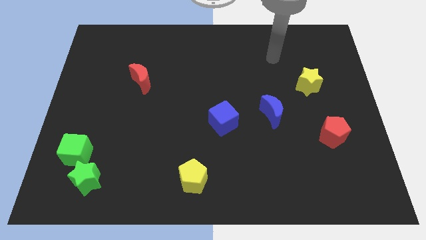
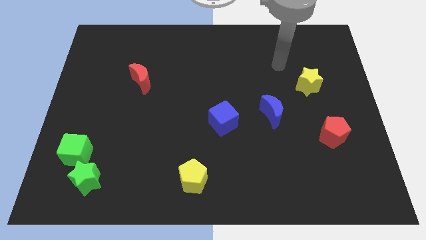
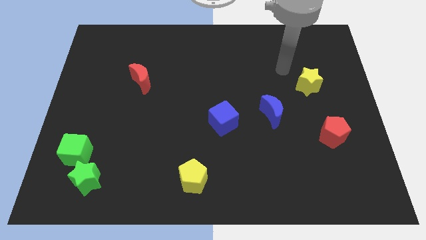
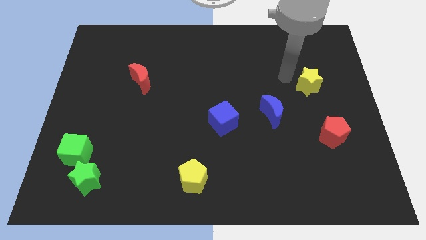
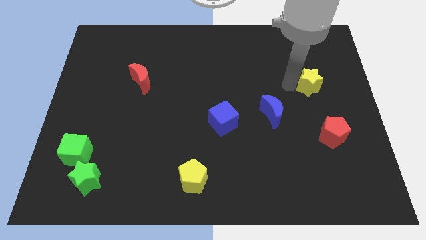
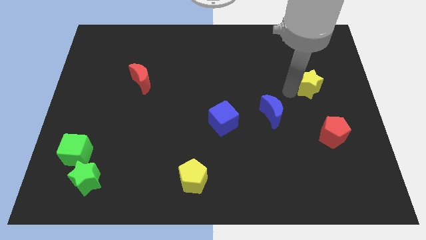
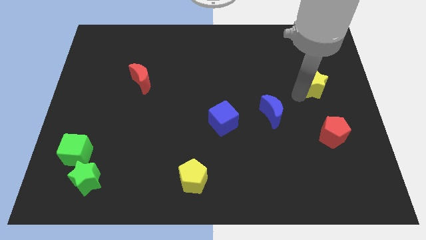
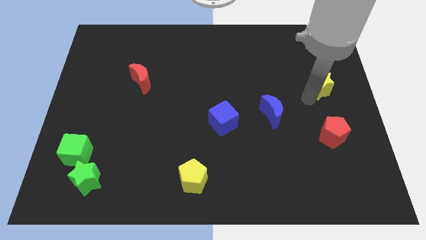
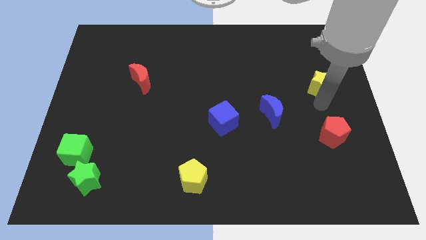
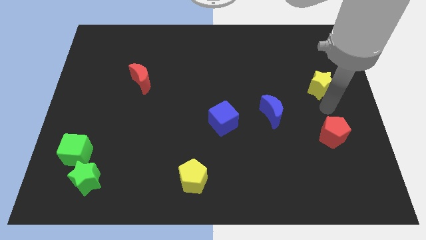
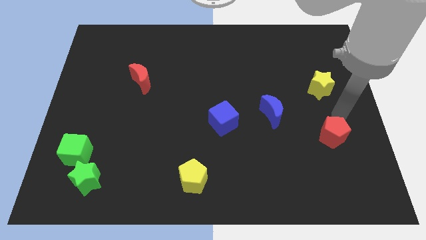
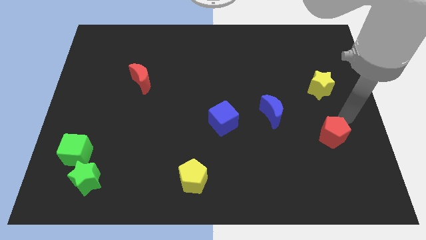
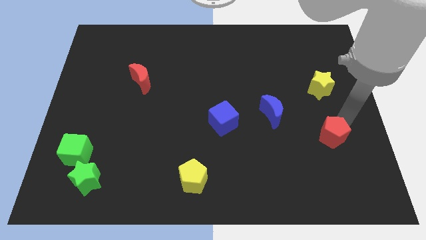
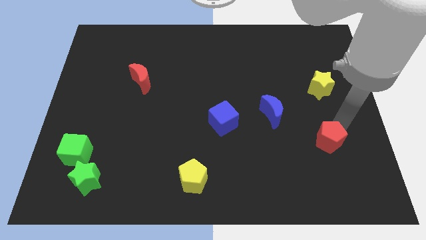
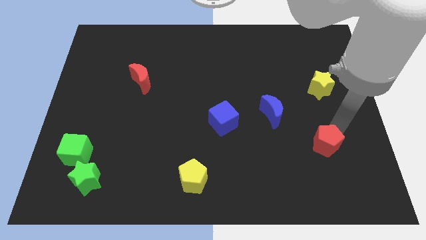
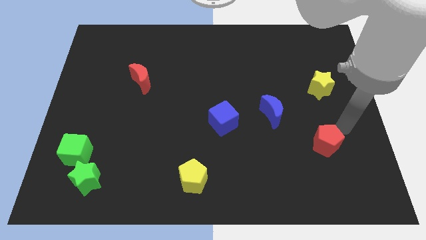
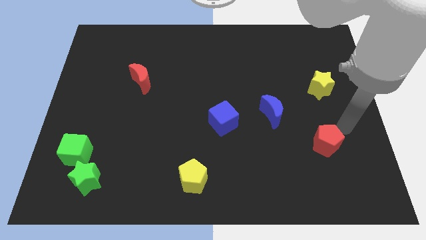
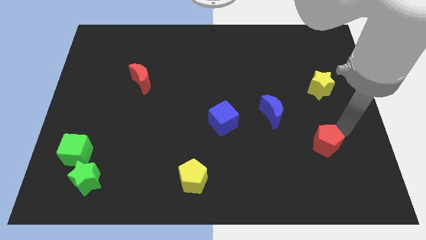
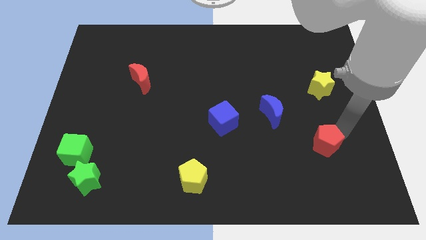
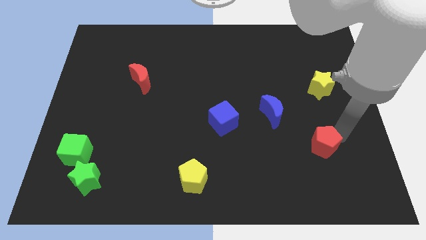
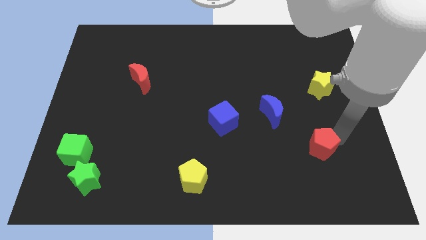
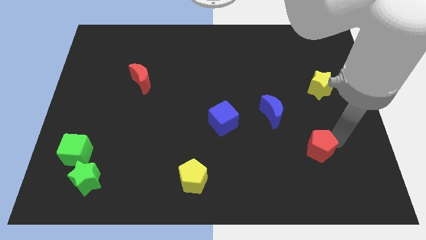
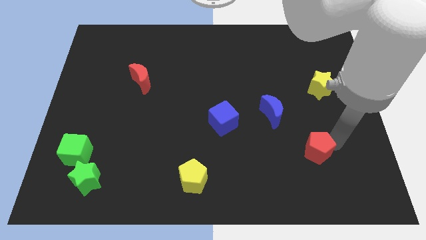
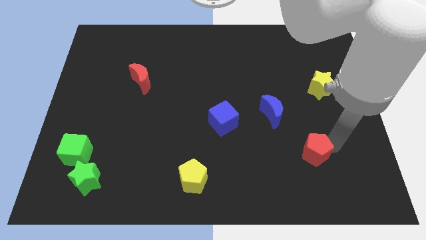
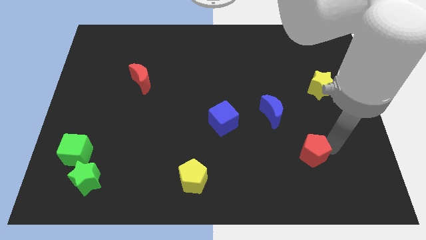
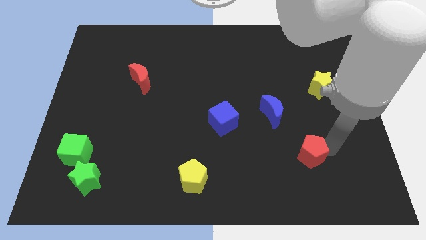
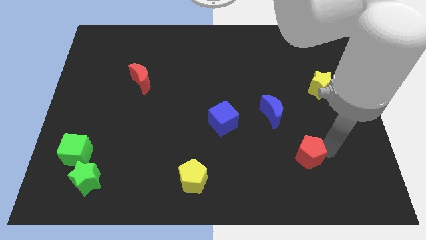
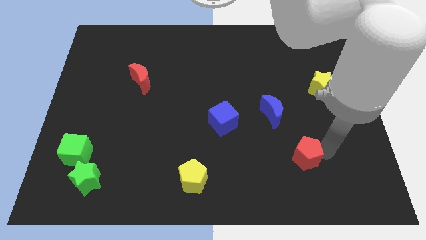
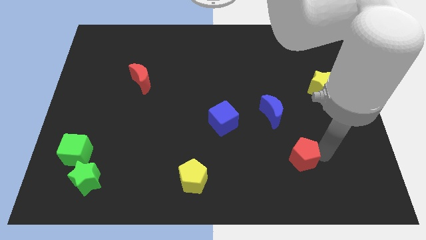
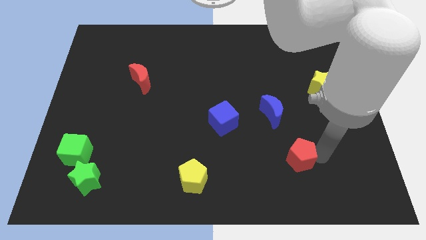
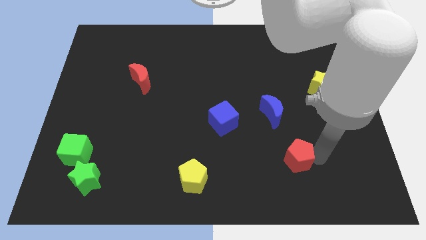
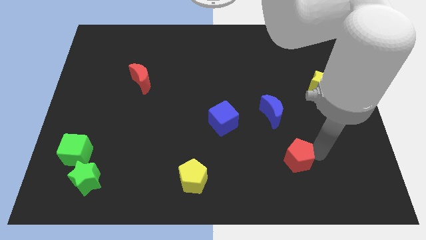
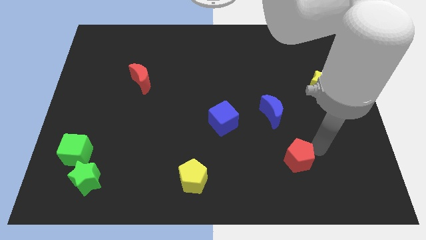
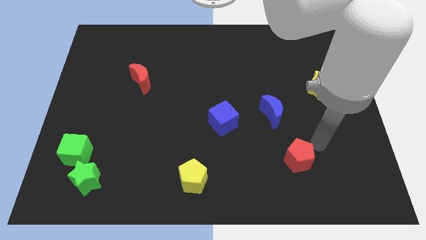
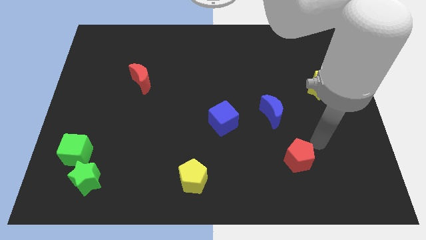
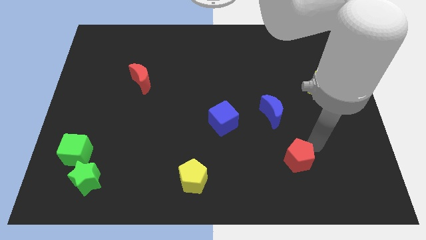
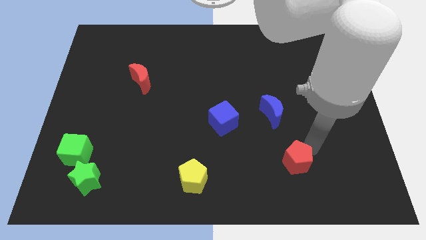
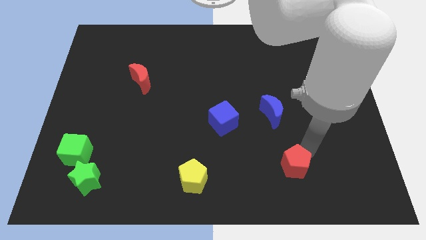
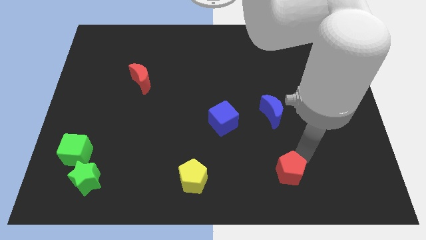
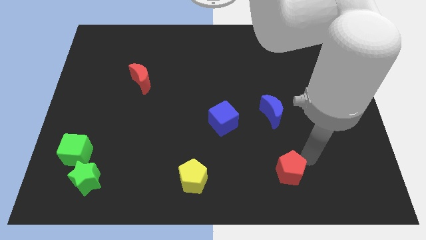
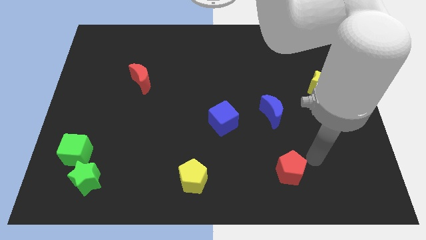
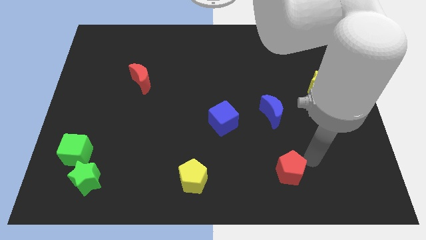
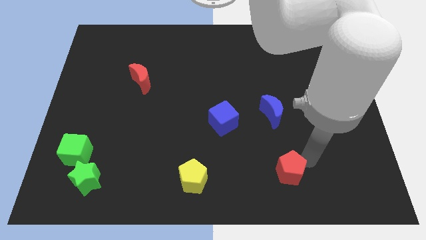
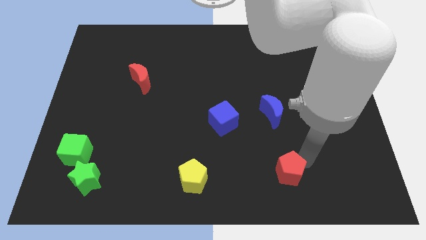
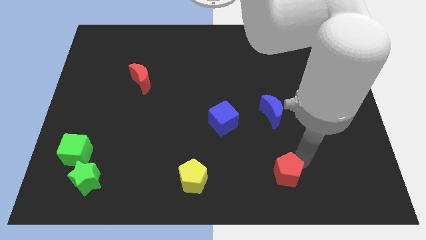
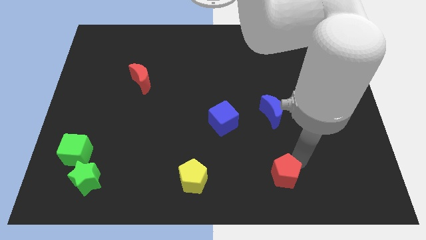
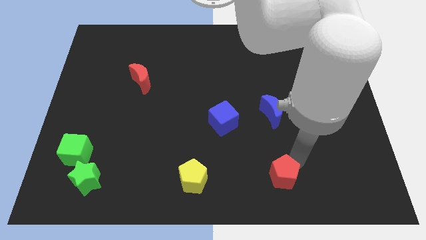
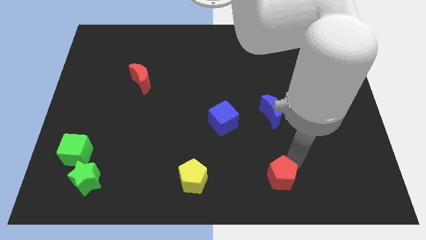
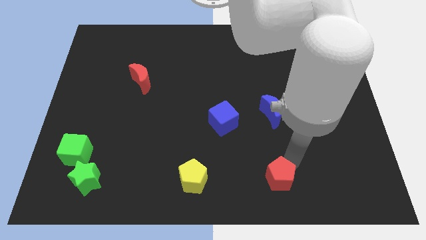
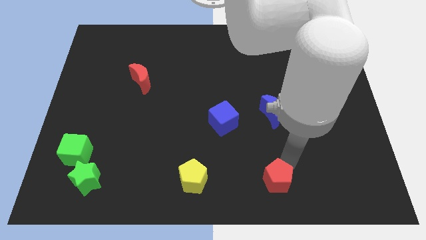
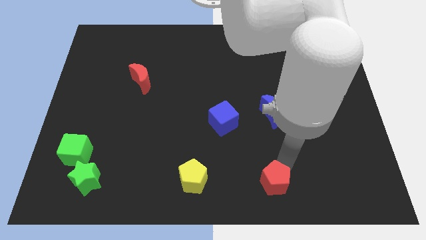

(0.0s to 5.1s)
put the red pentagon to the bottom side

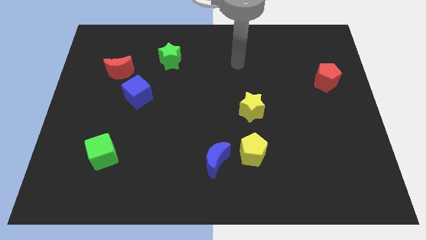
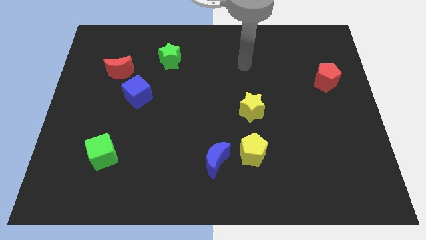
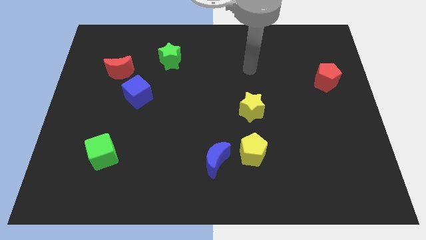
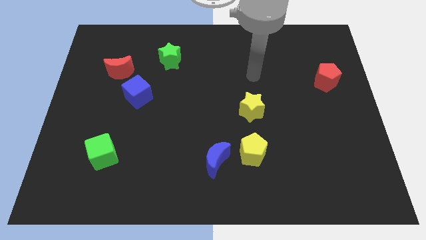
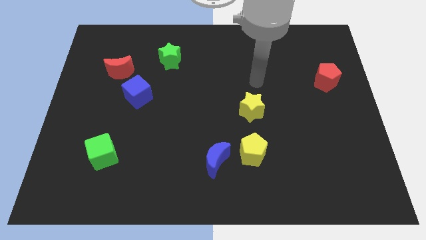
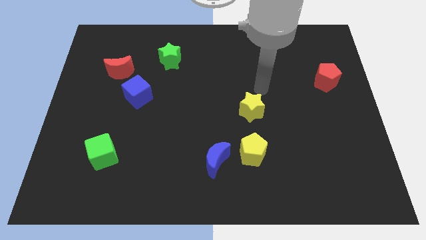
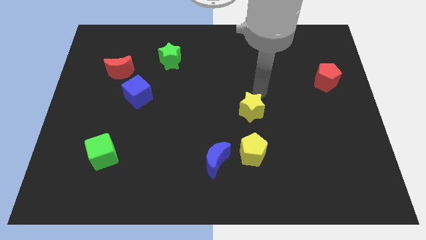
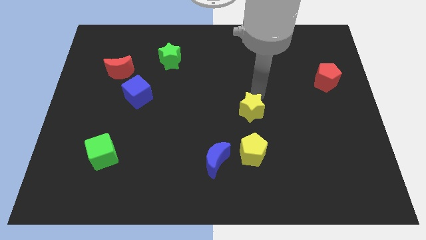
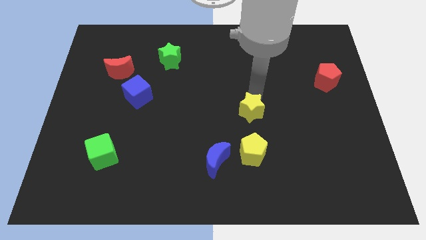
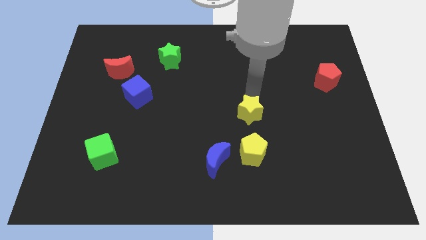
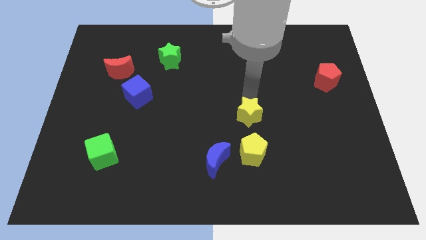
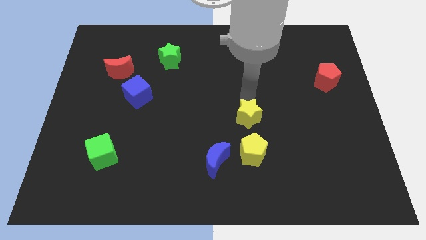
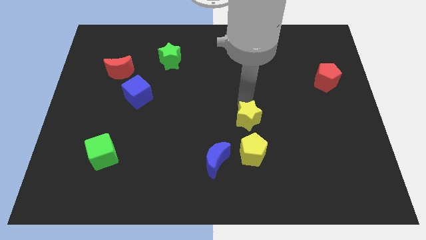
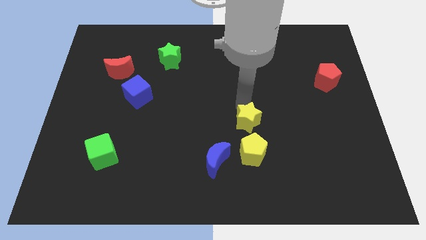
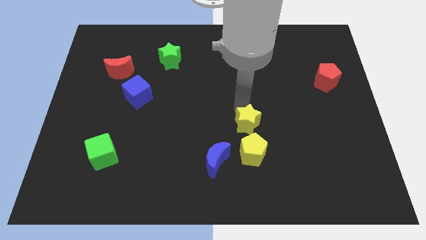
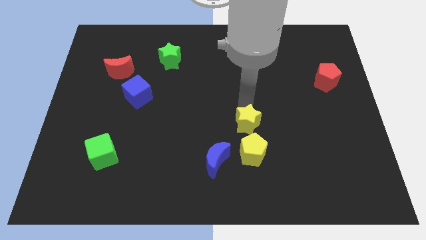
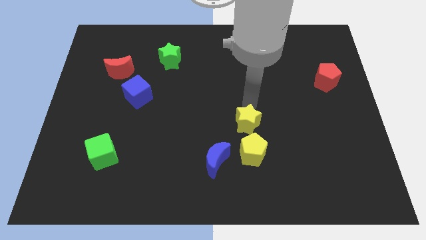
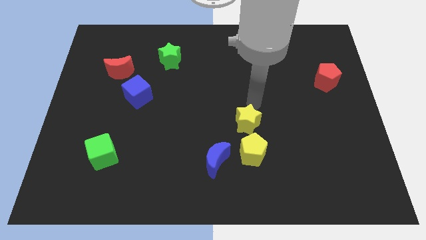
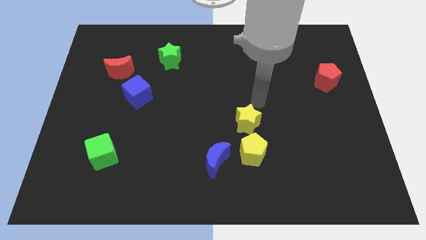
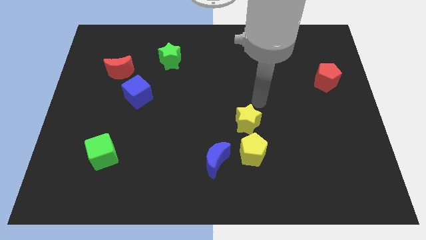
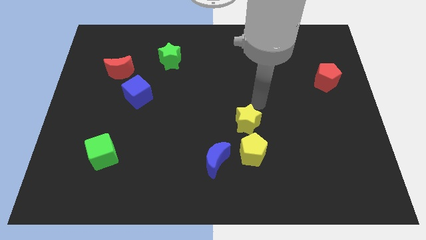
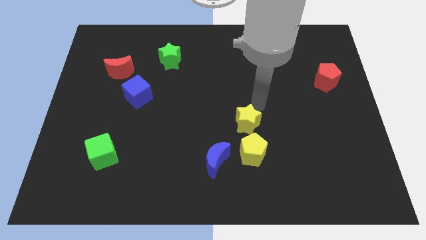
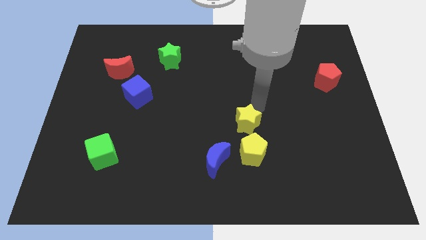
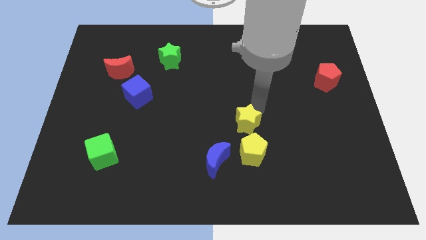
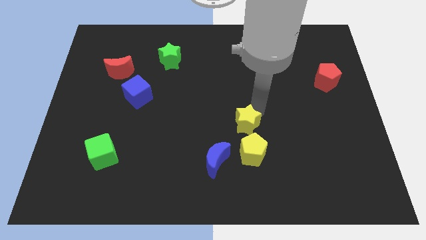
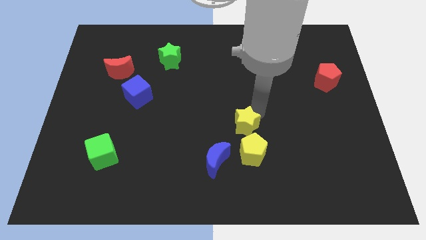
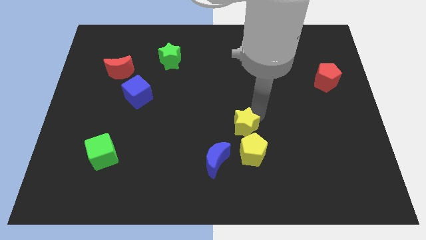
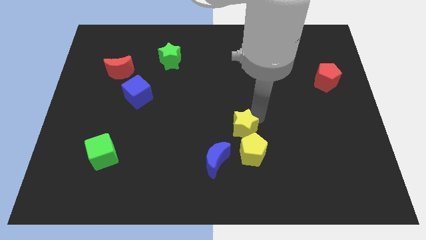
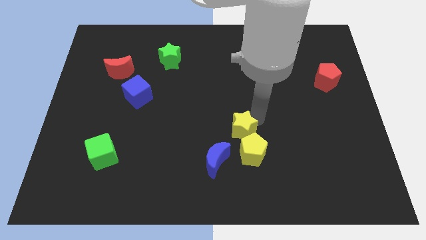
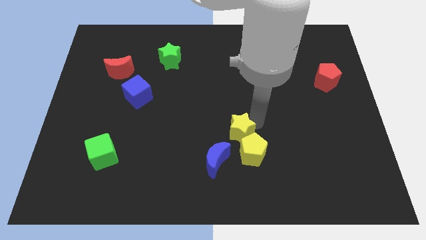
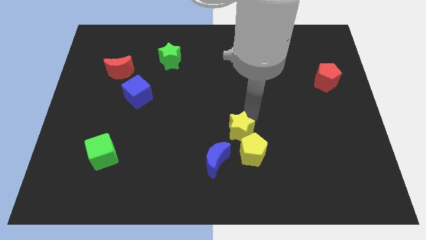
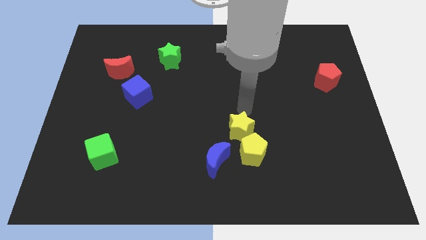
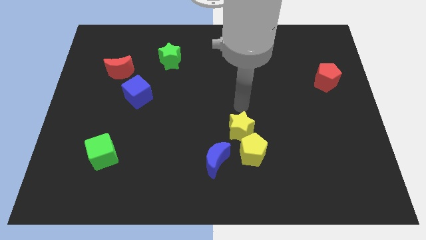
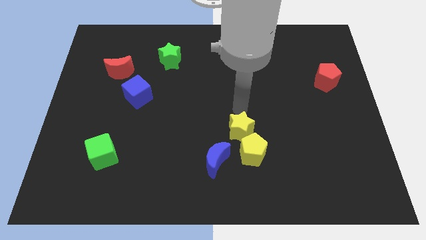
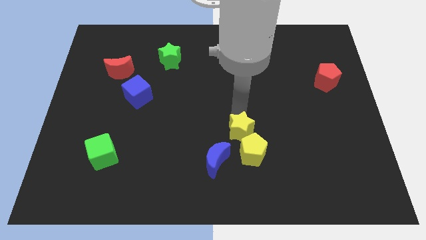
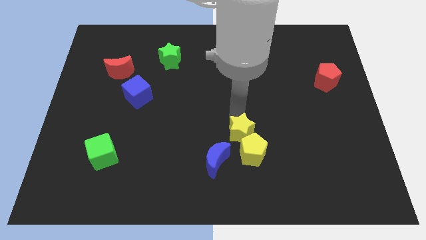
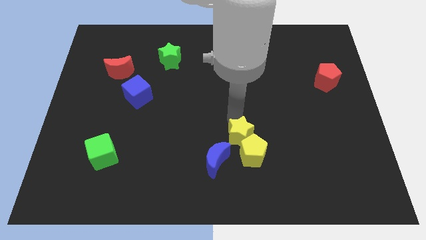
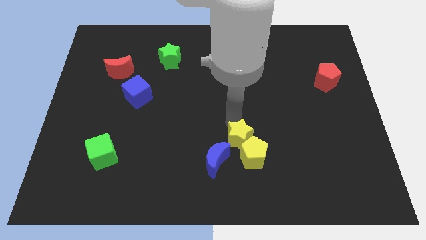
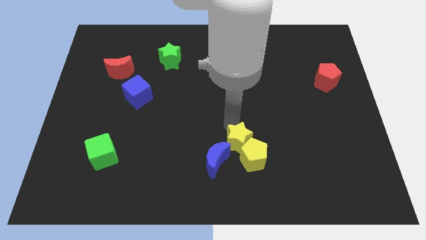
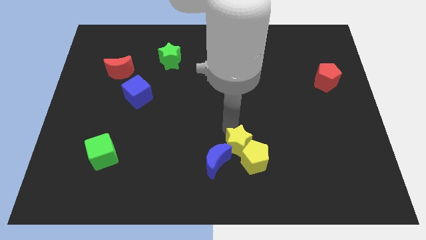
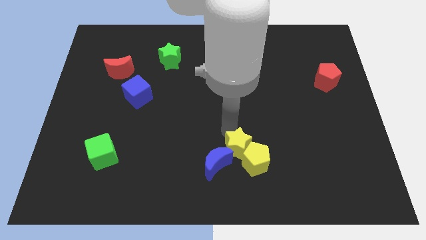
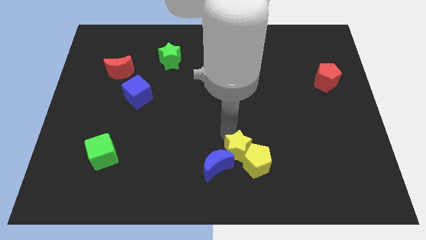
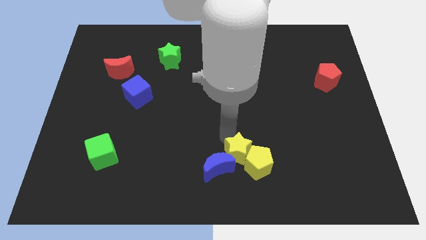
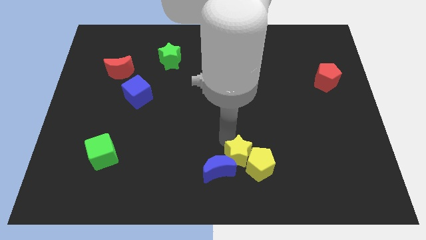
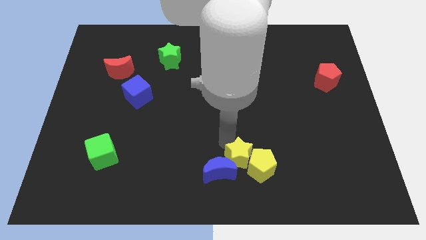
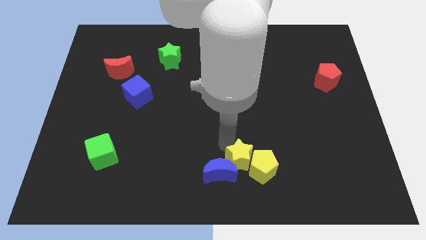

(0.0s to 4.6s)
slide the yellow star to the bottom side
